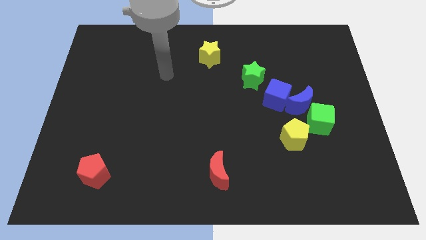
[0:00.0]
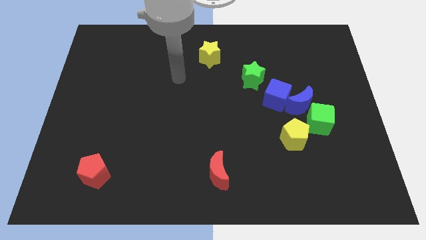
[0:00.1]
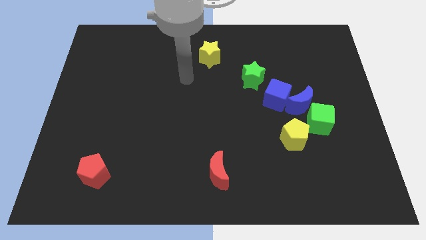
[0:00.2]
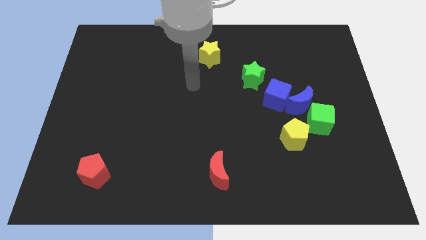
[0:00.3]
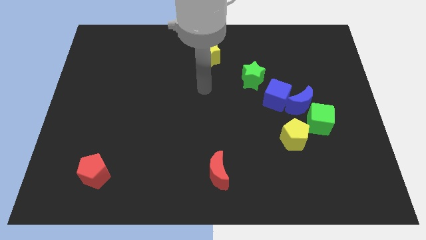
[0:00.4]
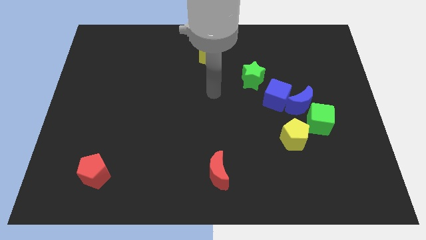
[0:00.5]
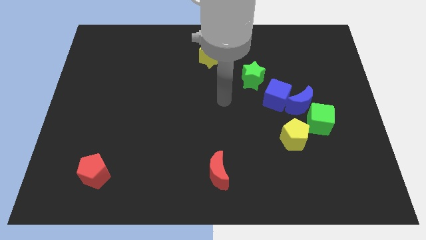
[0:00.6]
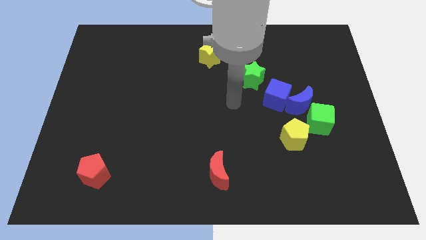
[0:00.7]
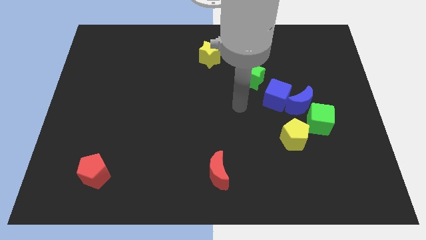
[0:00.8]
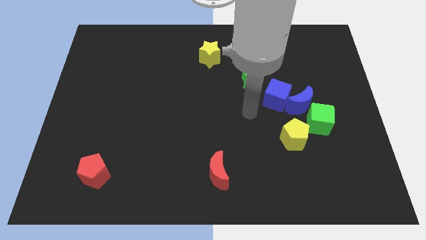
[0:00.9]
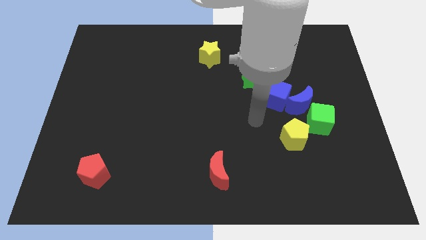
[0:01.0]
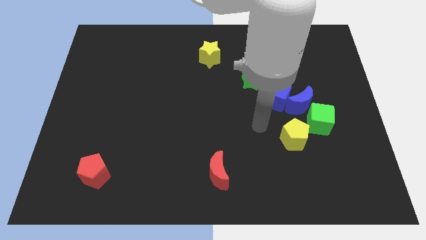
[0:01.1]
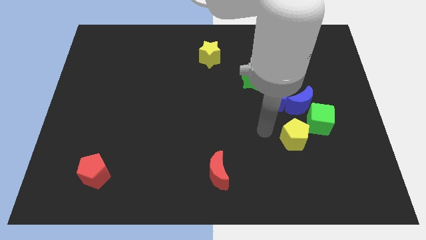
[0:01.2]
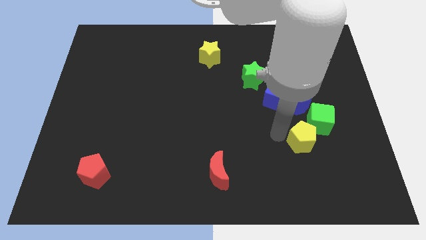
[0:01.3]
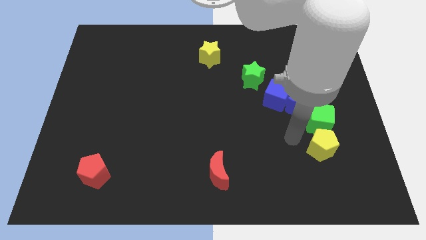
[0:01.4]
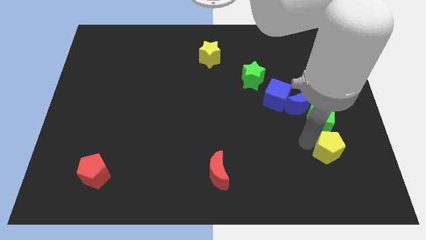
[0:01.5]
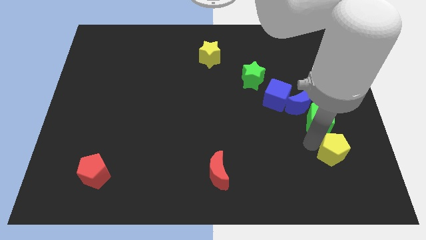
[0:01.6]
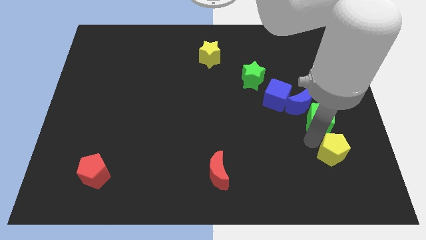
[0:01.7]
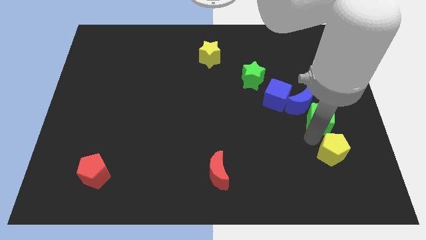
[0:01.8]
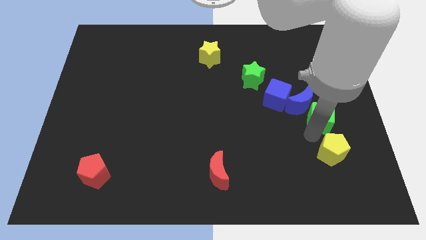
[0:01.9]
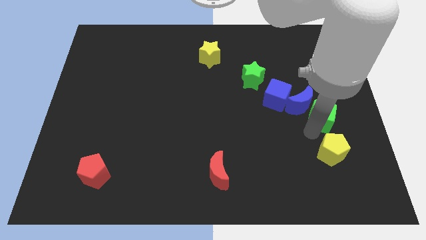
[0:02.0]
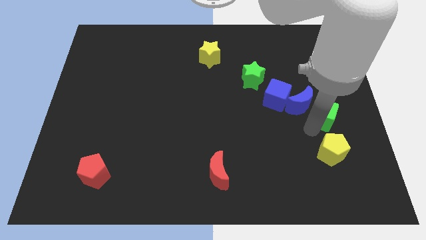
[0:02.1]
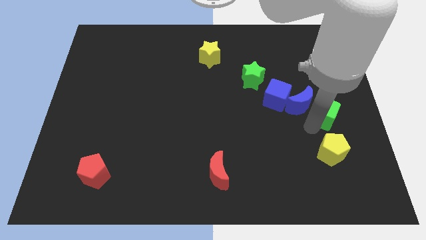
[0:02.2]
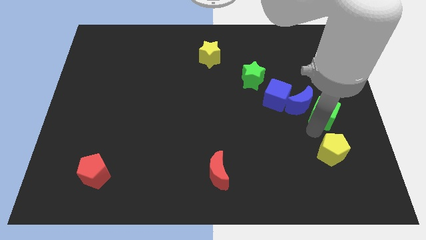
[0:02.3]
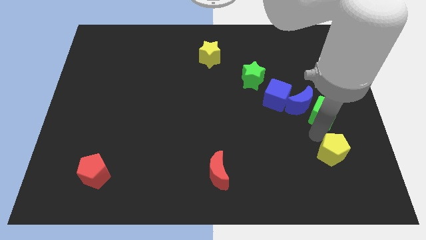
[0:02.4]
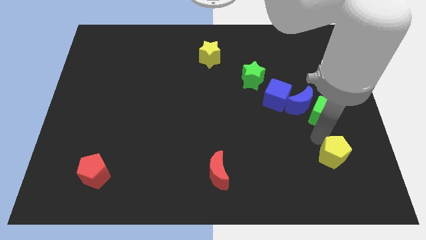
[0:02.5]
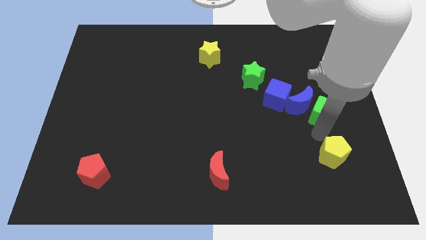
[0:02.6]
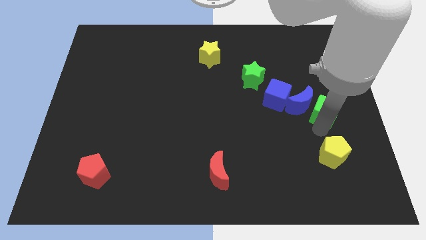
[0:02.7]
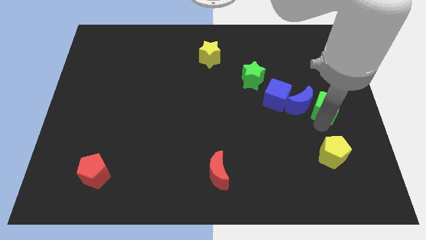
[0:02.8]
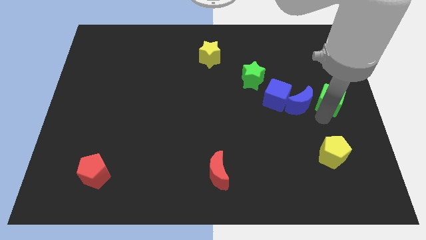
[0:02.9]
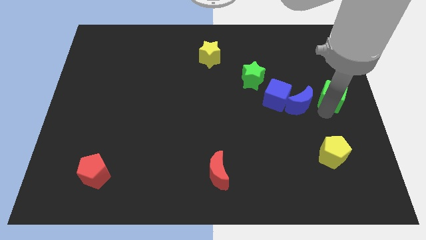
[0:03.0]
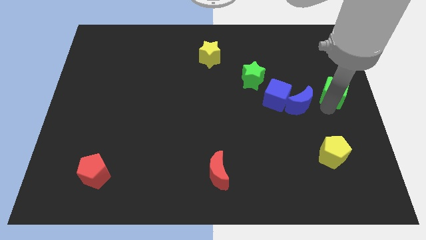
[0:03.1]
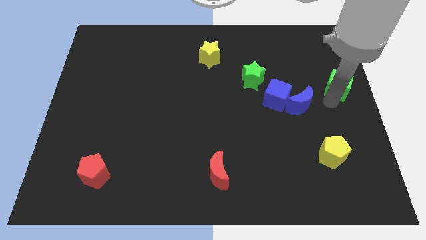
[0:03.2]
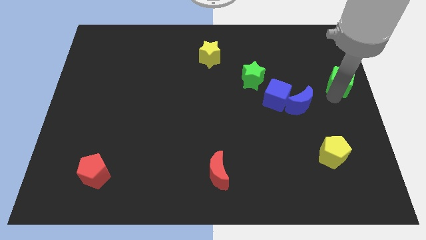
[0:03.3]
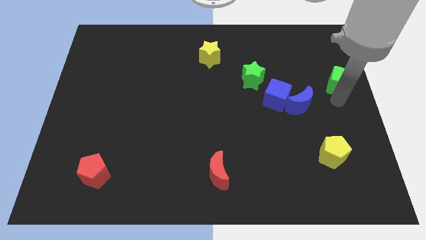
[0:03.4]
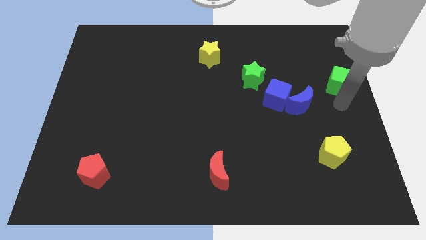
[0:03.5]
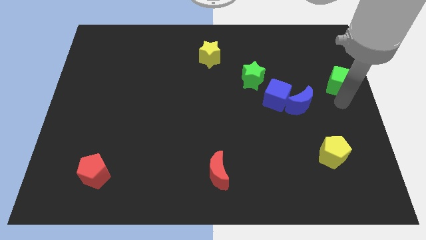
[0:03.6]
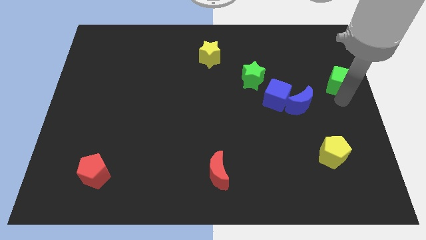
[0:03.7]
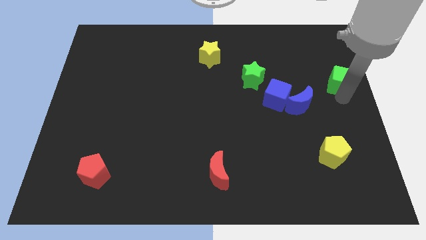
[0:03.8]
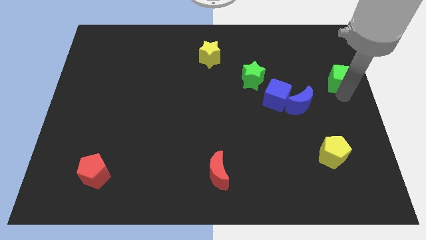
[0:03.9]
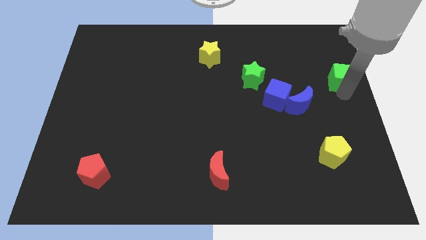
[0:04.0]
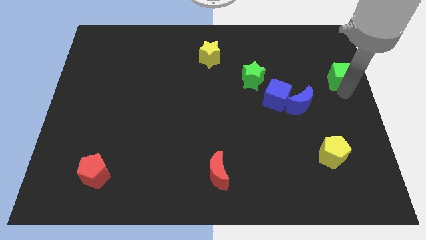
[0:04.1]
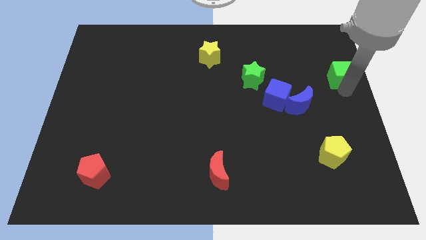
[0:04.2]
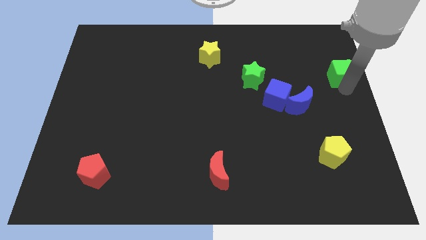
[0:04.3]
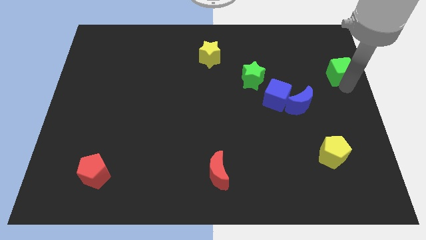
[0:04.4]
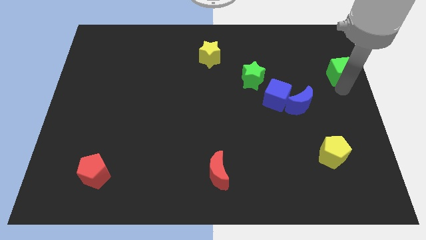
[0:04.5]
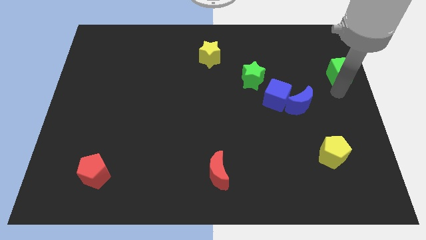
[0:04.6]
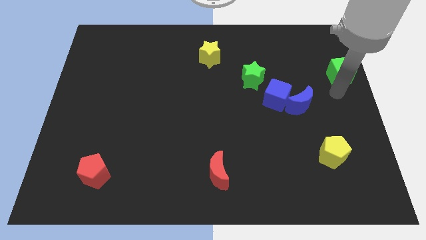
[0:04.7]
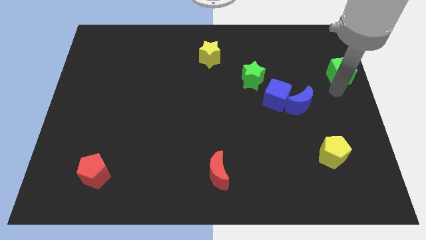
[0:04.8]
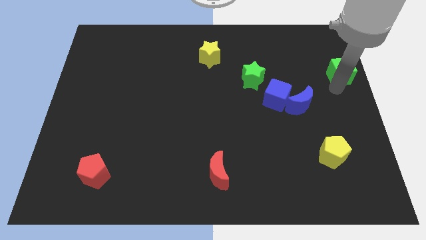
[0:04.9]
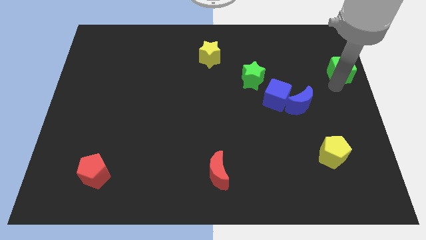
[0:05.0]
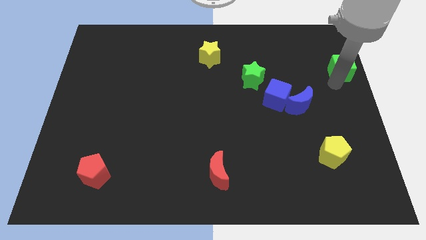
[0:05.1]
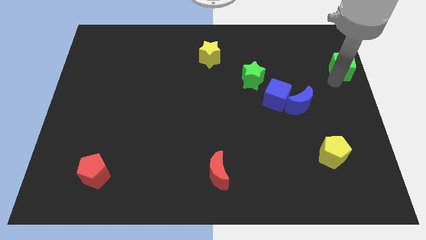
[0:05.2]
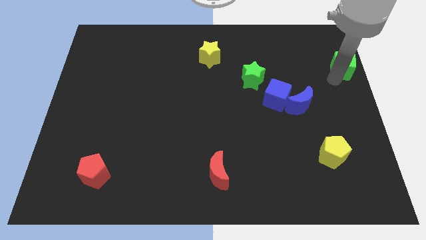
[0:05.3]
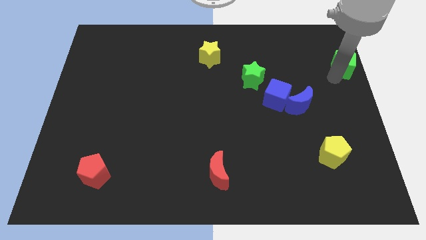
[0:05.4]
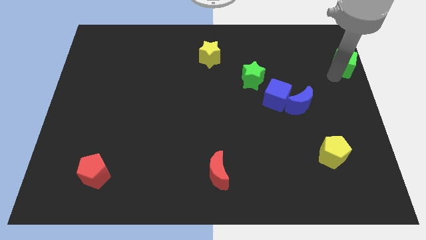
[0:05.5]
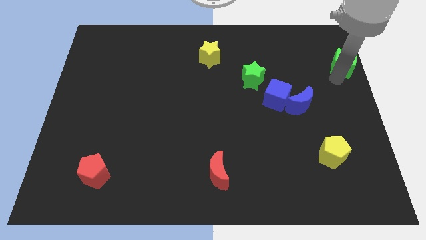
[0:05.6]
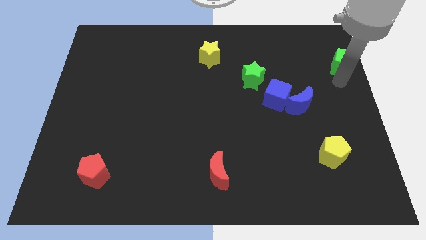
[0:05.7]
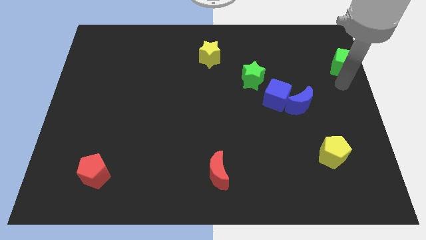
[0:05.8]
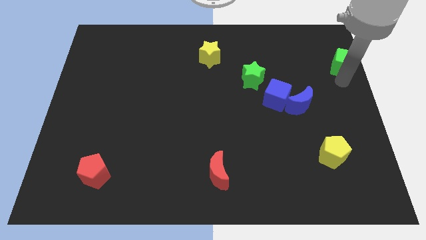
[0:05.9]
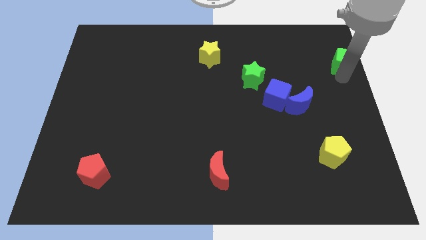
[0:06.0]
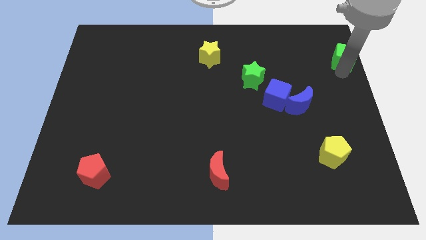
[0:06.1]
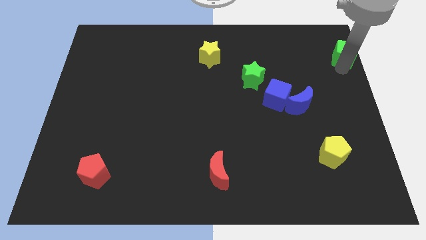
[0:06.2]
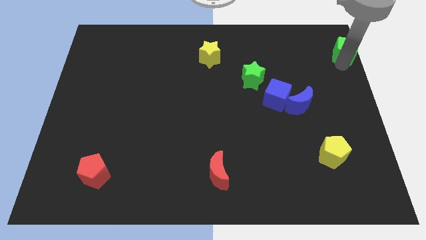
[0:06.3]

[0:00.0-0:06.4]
put the green cube to the top right
